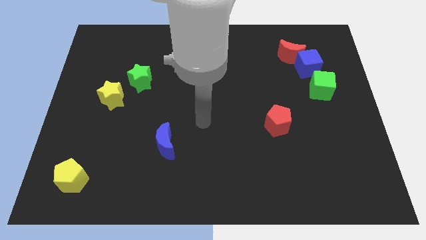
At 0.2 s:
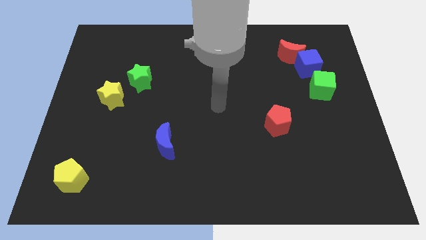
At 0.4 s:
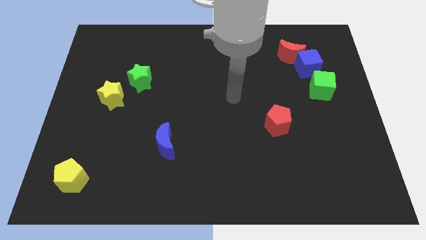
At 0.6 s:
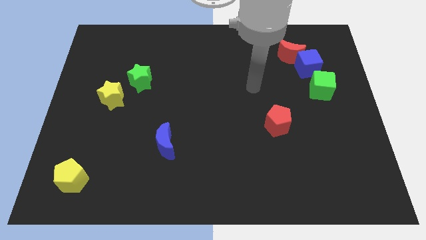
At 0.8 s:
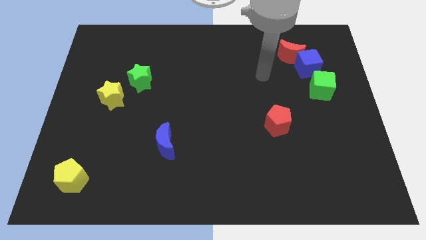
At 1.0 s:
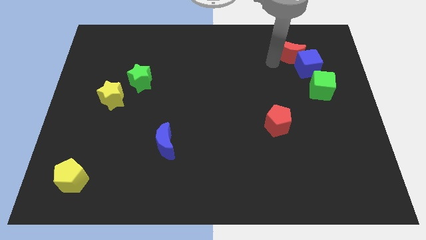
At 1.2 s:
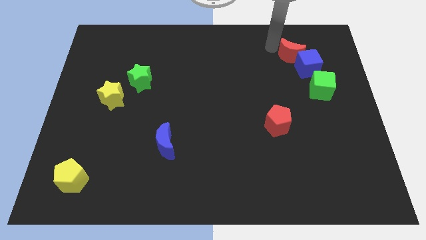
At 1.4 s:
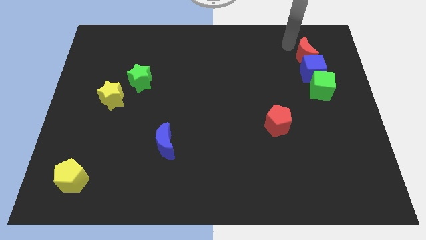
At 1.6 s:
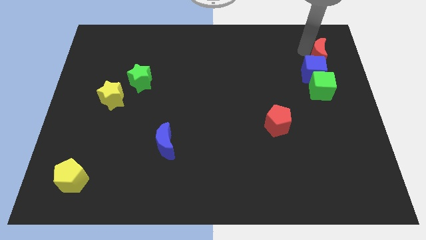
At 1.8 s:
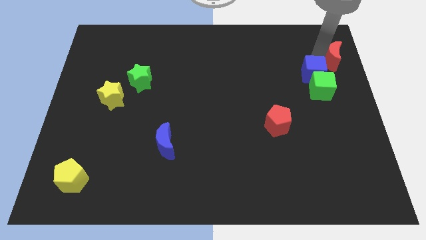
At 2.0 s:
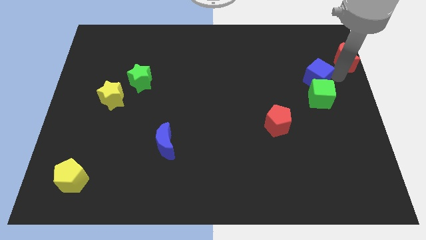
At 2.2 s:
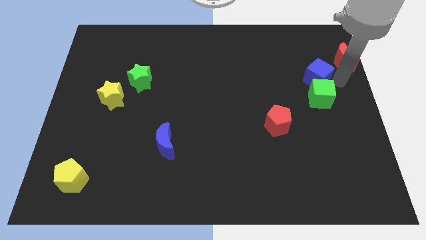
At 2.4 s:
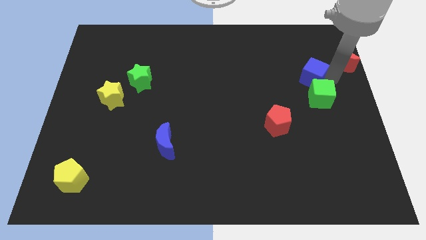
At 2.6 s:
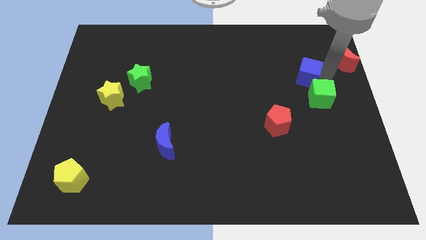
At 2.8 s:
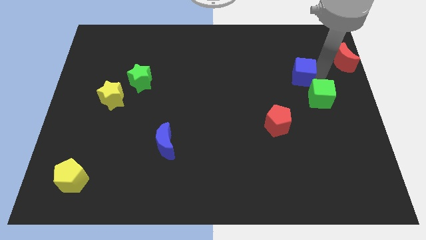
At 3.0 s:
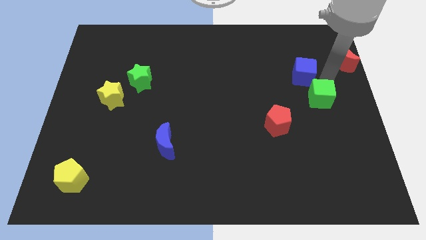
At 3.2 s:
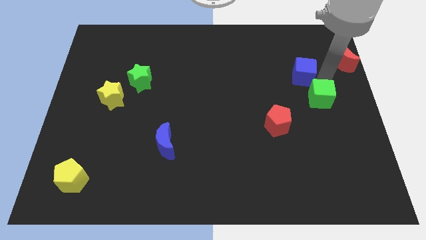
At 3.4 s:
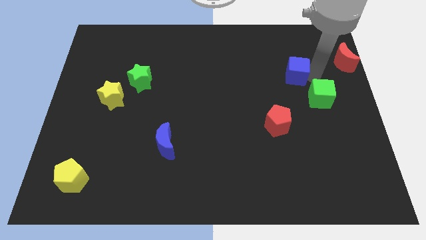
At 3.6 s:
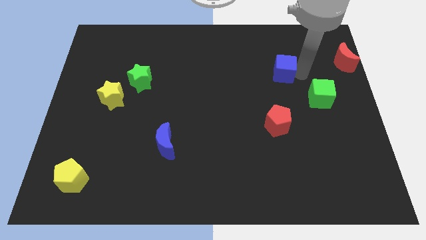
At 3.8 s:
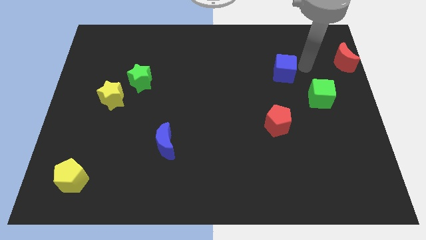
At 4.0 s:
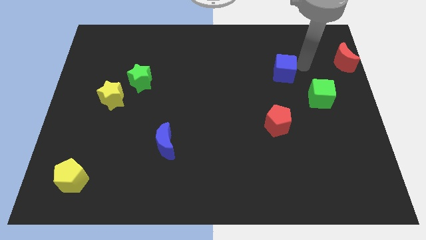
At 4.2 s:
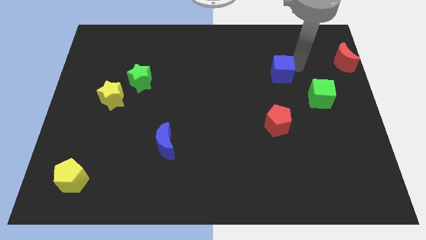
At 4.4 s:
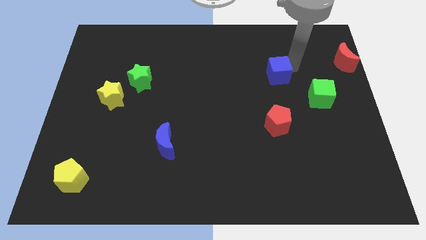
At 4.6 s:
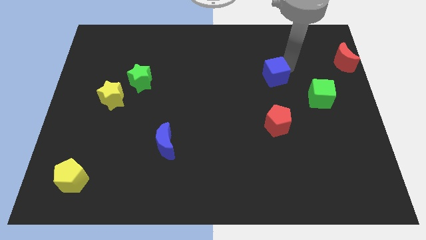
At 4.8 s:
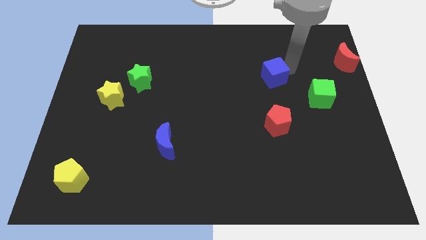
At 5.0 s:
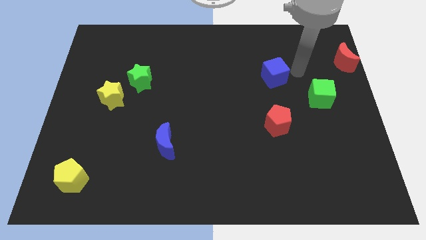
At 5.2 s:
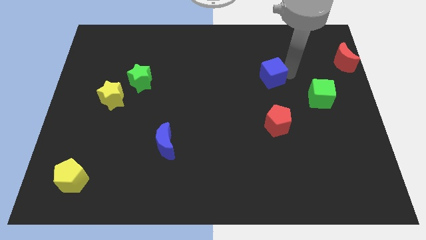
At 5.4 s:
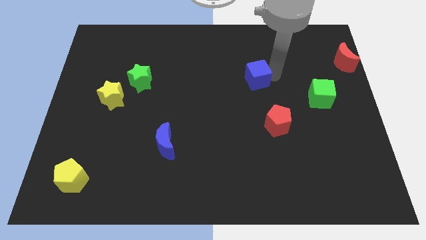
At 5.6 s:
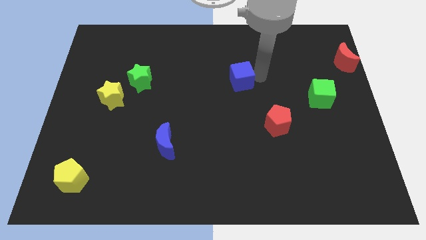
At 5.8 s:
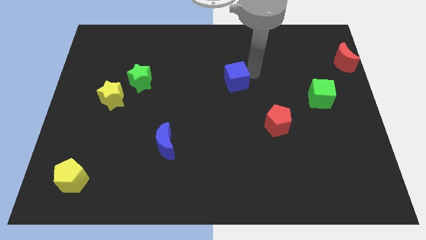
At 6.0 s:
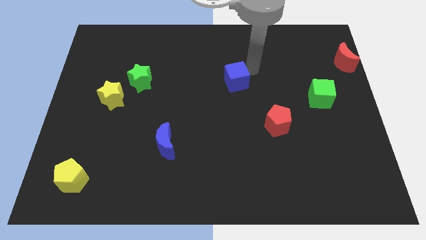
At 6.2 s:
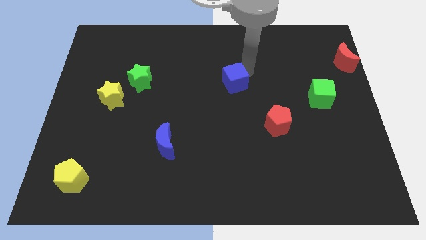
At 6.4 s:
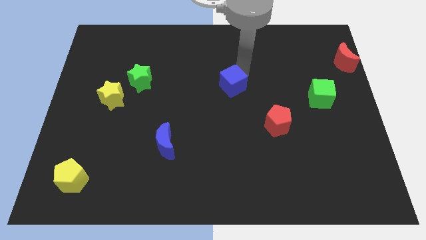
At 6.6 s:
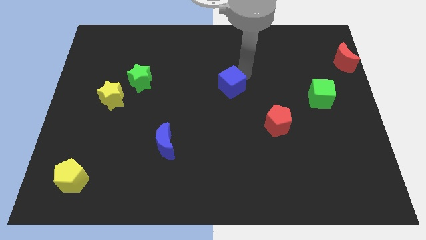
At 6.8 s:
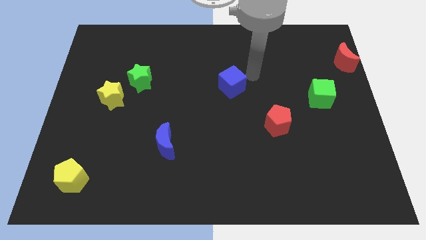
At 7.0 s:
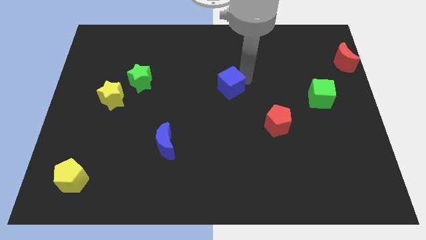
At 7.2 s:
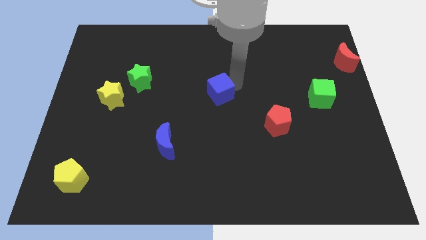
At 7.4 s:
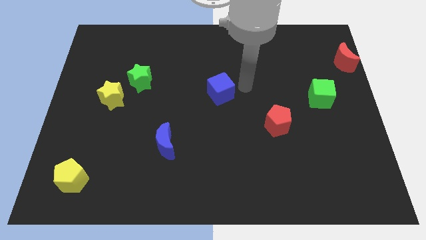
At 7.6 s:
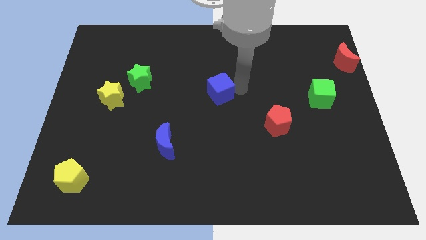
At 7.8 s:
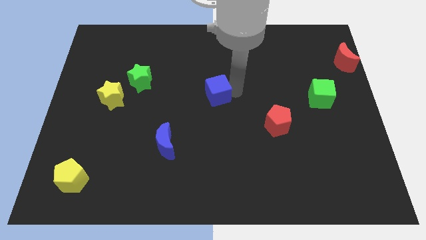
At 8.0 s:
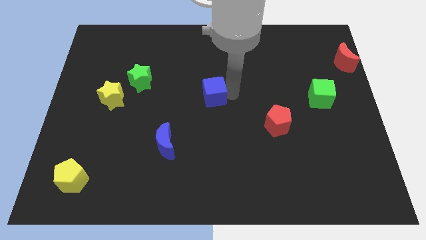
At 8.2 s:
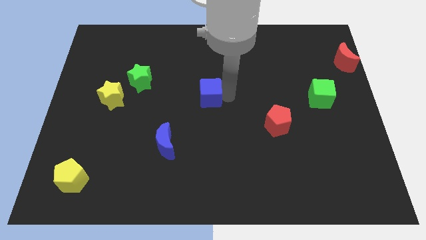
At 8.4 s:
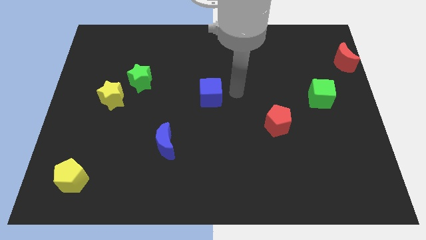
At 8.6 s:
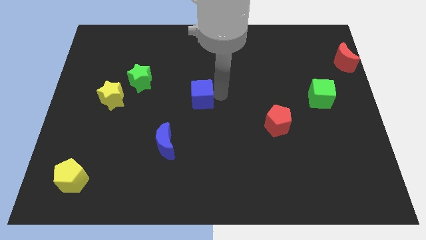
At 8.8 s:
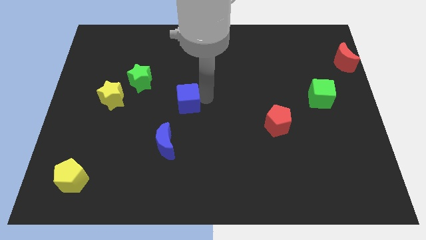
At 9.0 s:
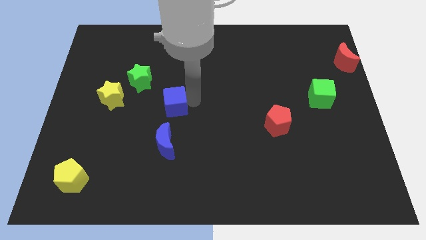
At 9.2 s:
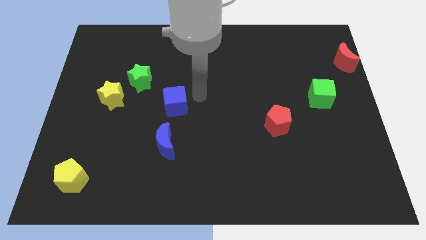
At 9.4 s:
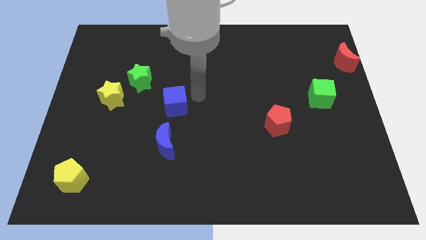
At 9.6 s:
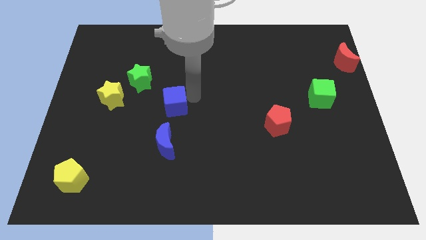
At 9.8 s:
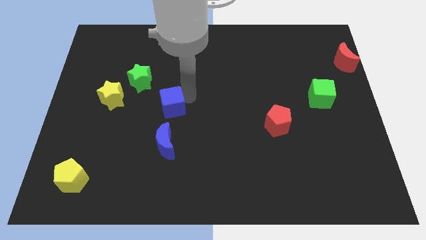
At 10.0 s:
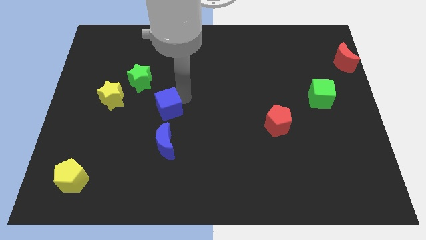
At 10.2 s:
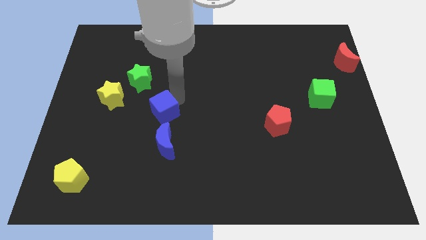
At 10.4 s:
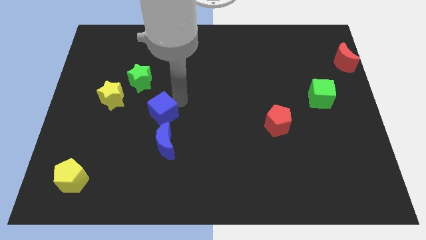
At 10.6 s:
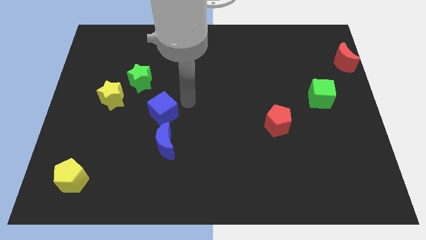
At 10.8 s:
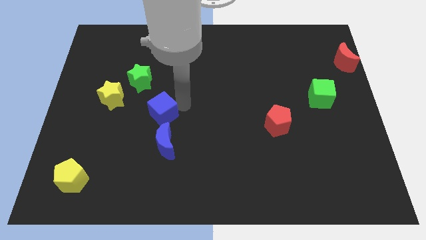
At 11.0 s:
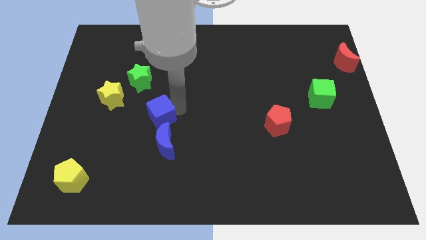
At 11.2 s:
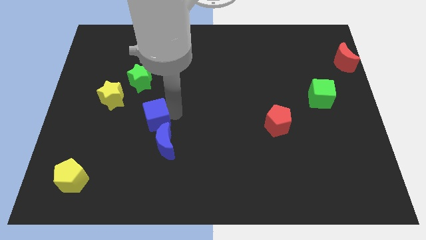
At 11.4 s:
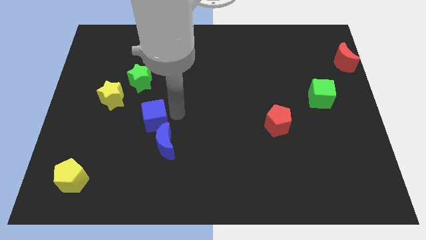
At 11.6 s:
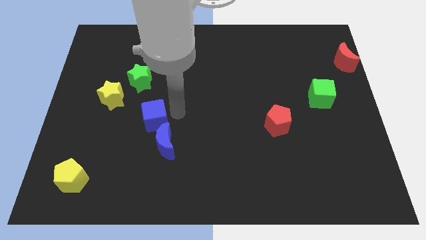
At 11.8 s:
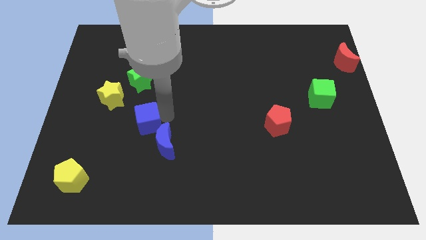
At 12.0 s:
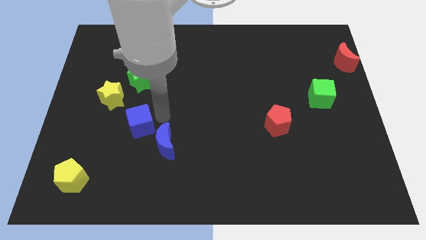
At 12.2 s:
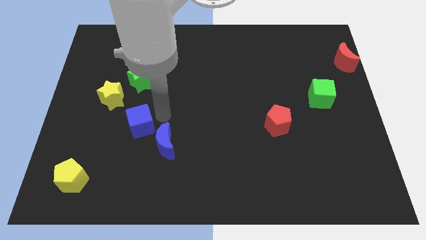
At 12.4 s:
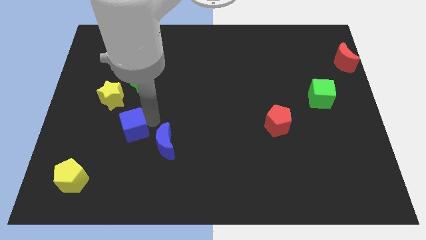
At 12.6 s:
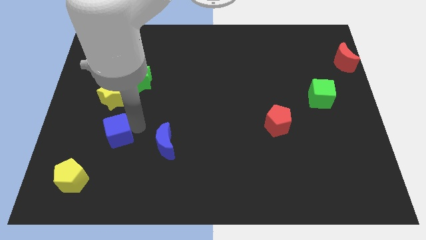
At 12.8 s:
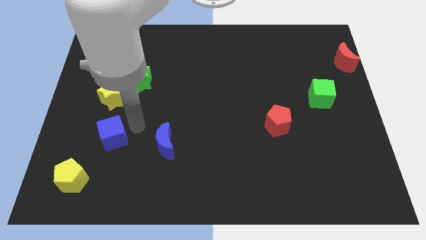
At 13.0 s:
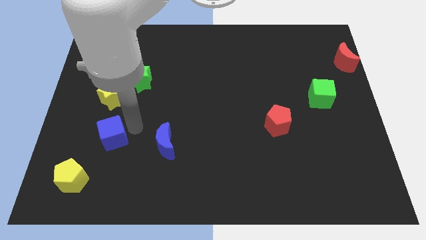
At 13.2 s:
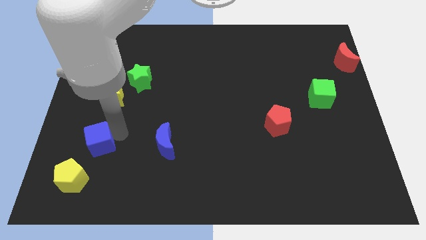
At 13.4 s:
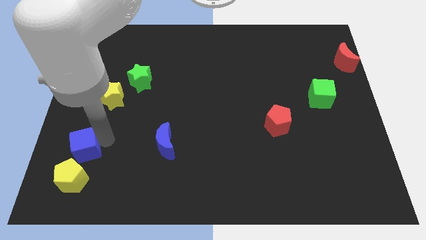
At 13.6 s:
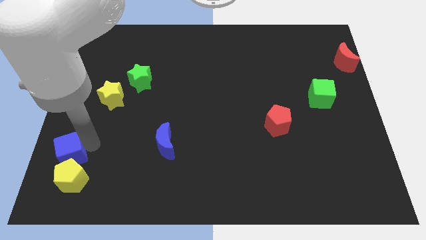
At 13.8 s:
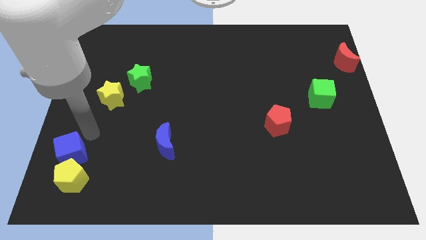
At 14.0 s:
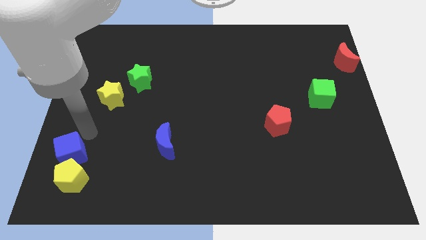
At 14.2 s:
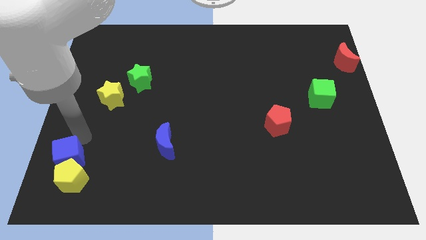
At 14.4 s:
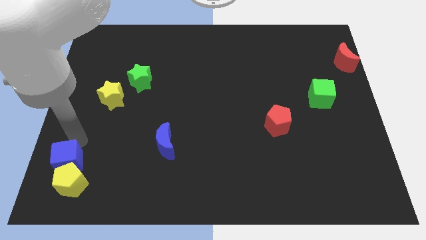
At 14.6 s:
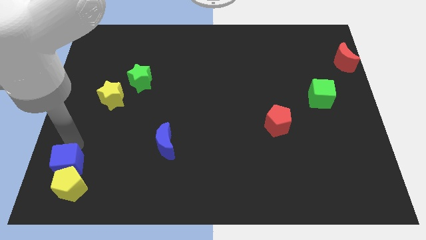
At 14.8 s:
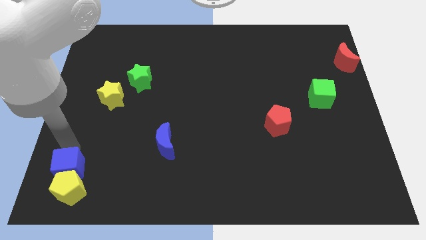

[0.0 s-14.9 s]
move the blue cube to the bottom left of the board
